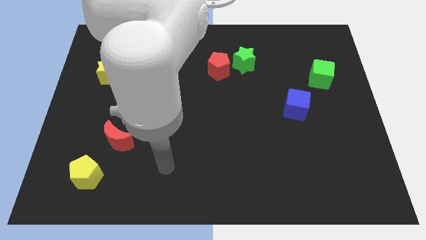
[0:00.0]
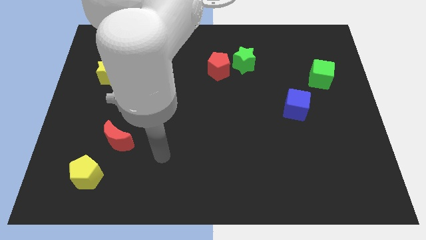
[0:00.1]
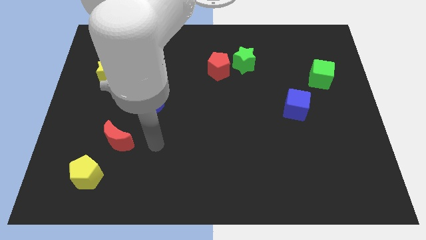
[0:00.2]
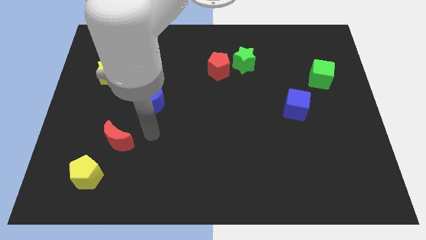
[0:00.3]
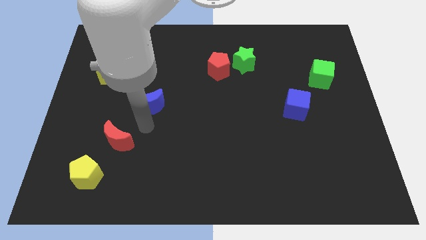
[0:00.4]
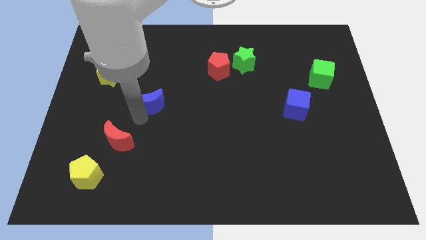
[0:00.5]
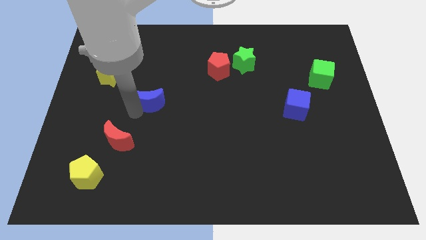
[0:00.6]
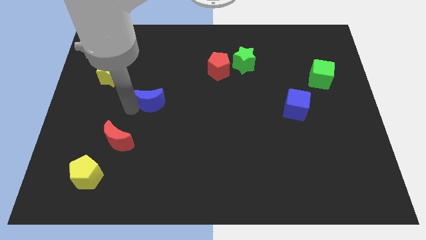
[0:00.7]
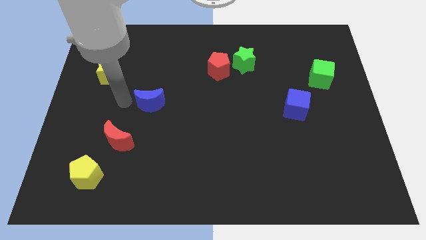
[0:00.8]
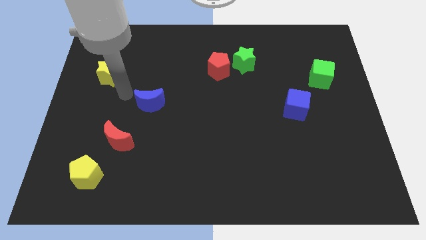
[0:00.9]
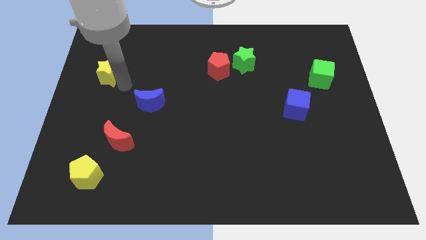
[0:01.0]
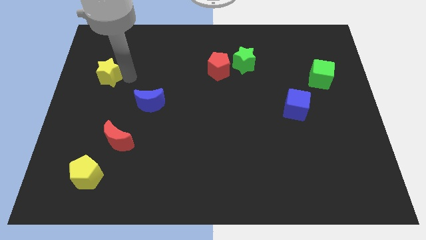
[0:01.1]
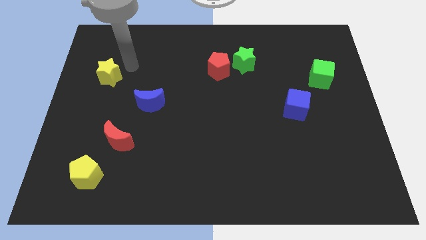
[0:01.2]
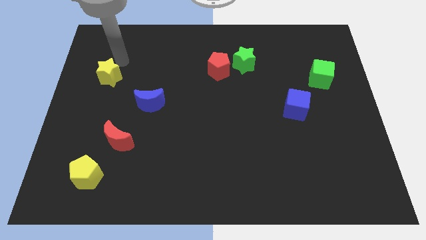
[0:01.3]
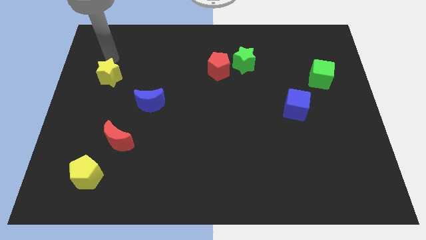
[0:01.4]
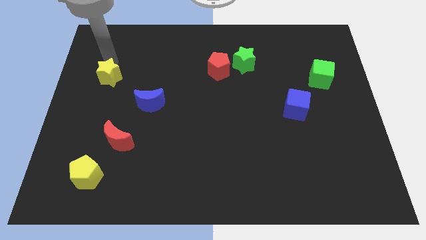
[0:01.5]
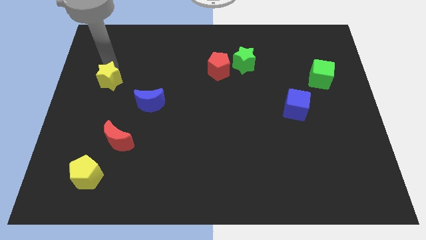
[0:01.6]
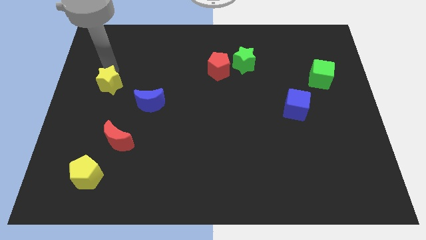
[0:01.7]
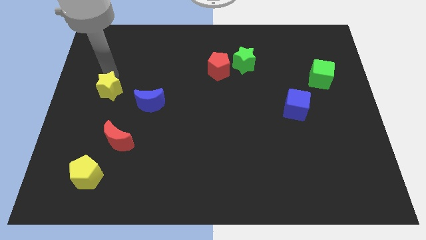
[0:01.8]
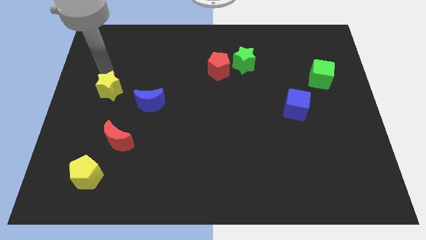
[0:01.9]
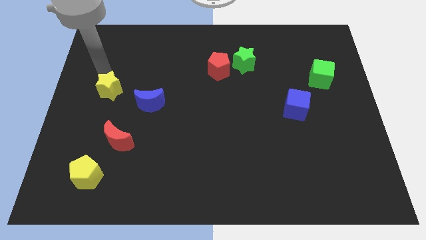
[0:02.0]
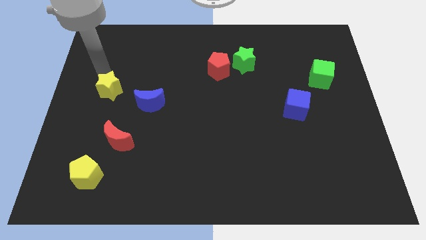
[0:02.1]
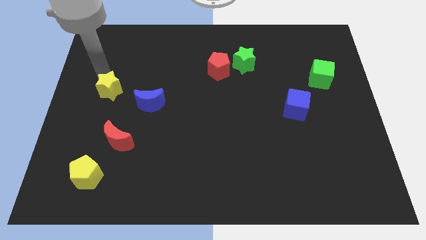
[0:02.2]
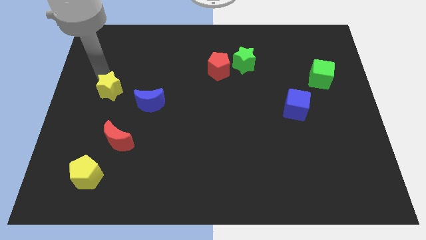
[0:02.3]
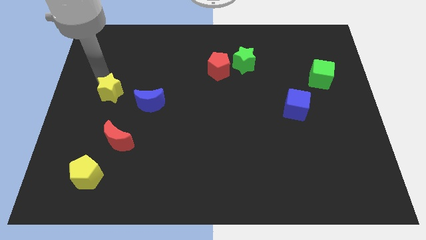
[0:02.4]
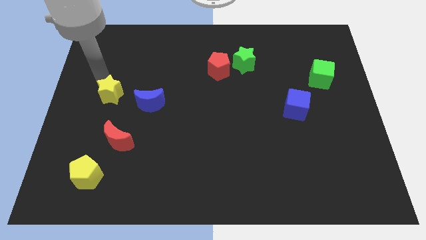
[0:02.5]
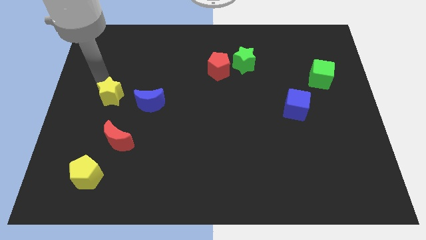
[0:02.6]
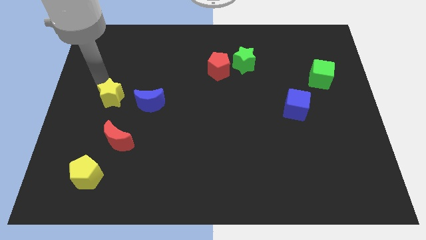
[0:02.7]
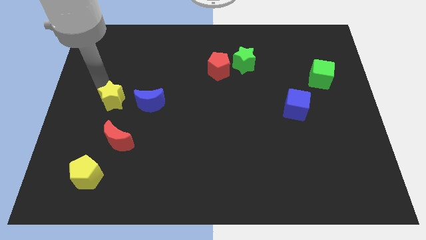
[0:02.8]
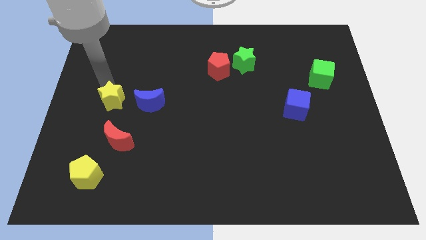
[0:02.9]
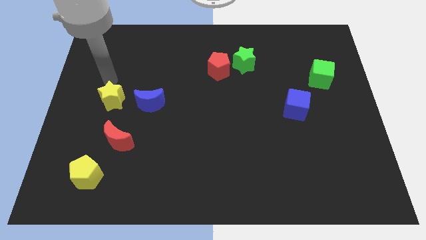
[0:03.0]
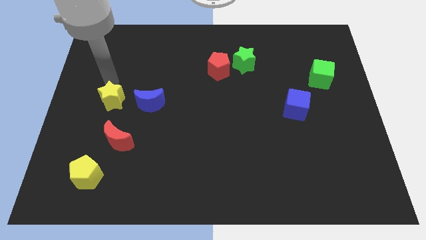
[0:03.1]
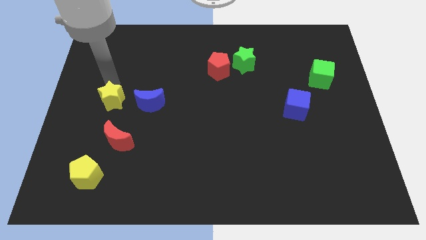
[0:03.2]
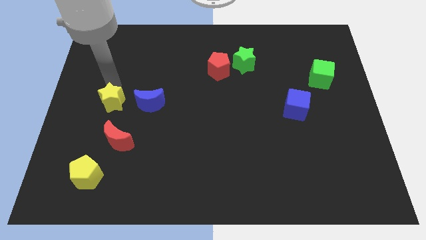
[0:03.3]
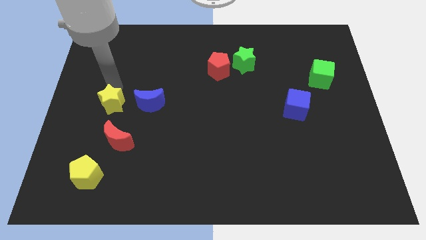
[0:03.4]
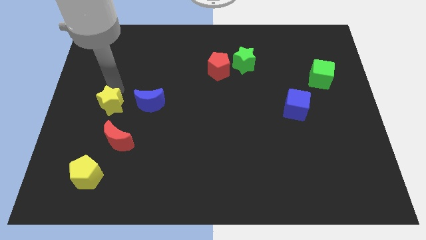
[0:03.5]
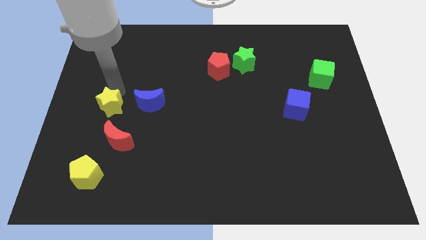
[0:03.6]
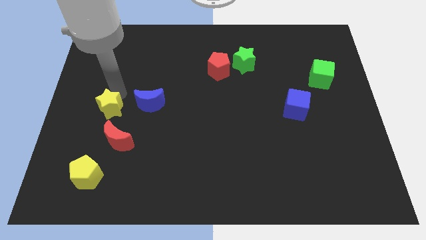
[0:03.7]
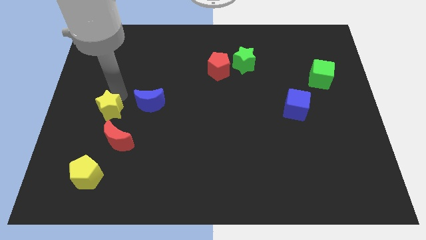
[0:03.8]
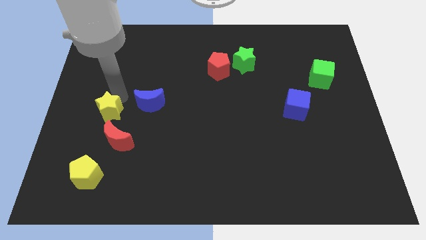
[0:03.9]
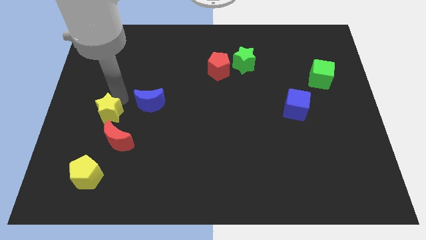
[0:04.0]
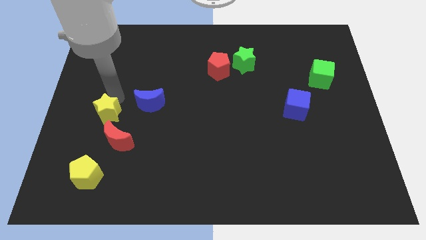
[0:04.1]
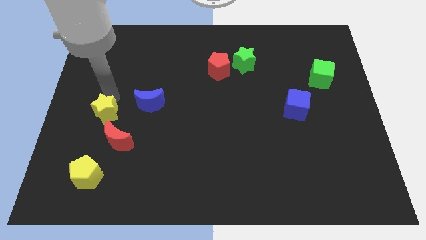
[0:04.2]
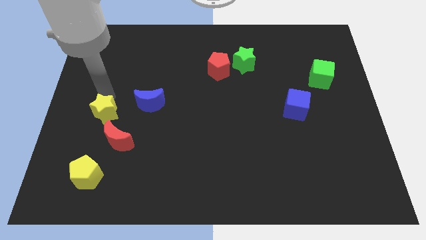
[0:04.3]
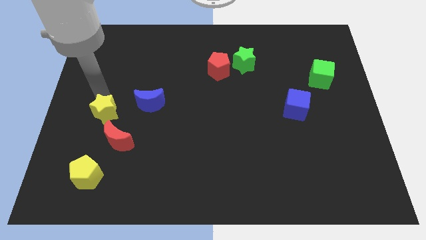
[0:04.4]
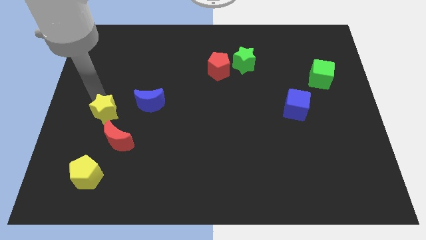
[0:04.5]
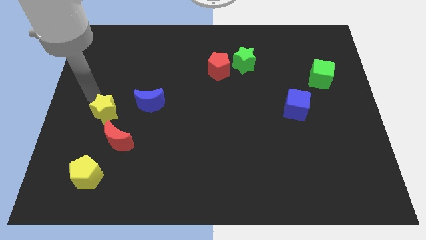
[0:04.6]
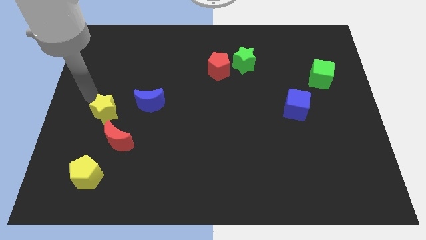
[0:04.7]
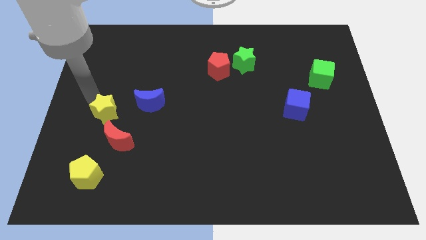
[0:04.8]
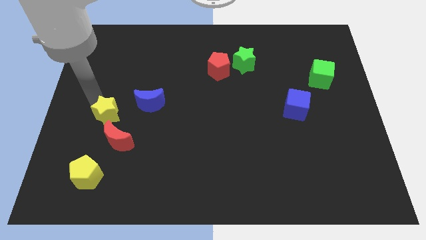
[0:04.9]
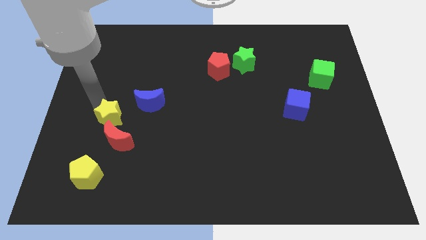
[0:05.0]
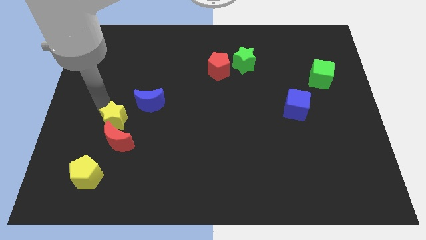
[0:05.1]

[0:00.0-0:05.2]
move the yellow star close to the red moon

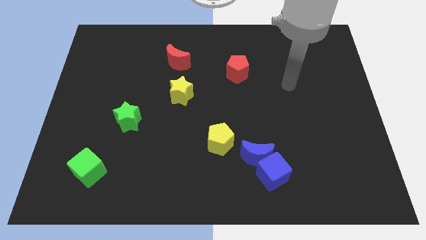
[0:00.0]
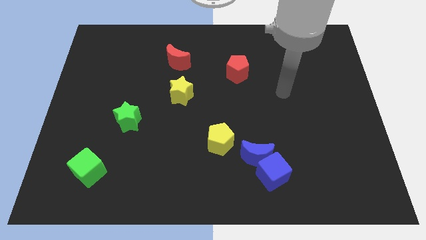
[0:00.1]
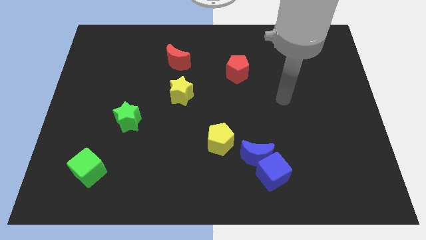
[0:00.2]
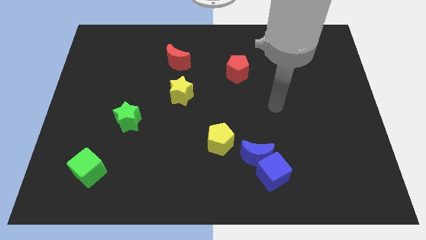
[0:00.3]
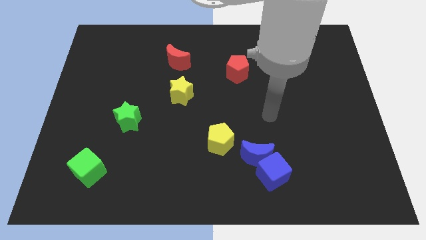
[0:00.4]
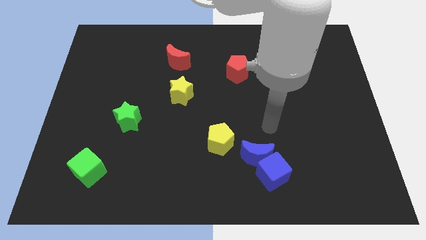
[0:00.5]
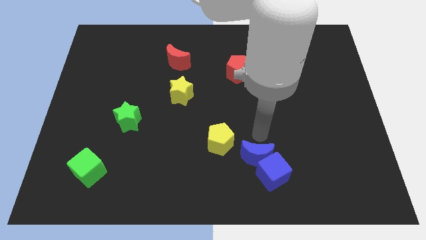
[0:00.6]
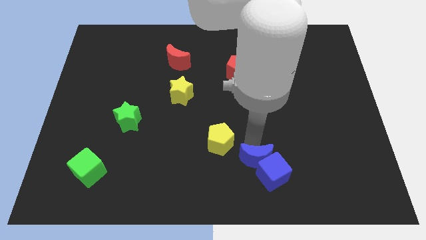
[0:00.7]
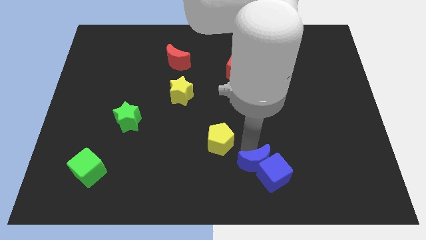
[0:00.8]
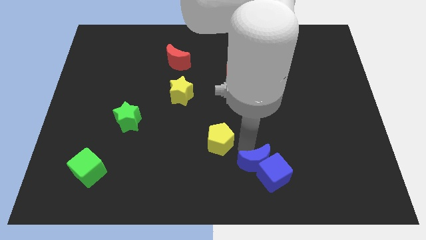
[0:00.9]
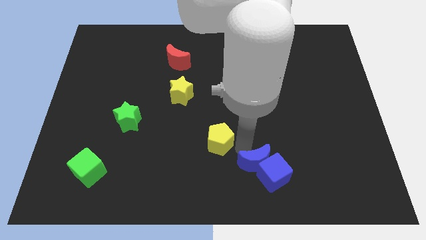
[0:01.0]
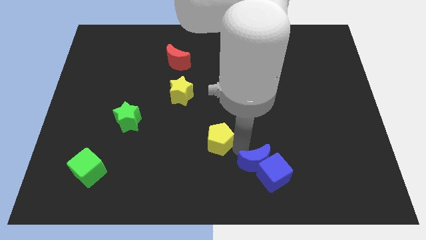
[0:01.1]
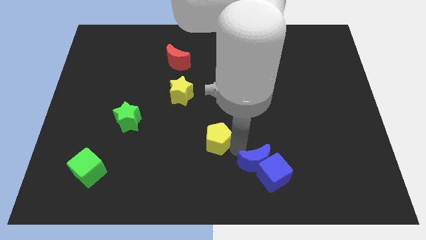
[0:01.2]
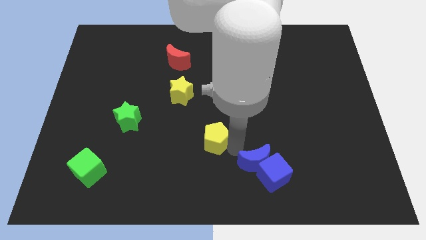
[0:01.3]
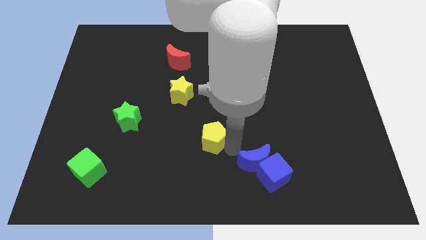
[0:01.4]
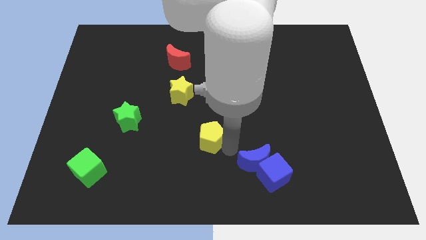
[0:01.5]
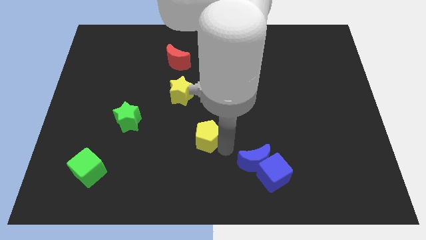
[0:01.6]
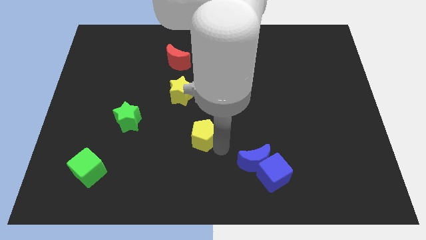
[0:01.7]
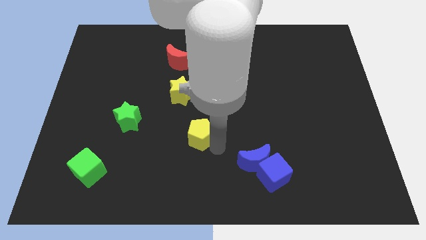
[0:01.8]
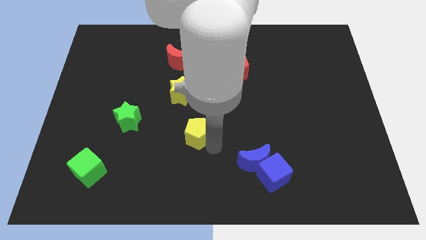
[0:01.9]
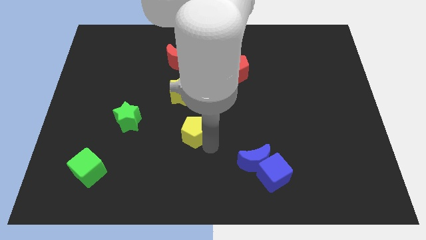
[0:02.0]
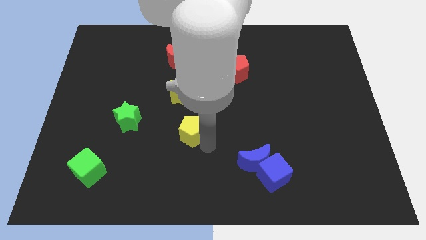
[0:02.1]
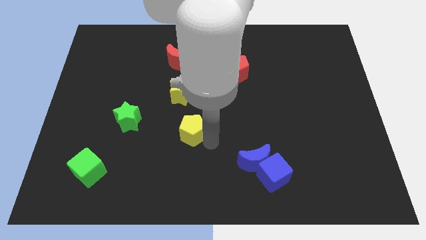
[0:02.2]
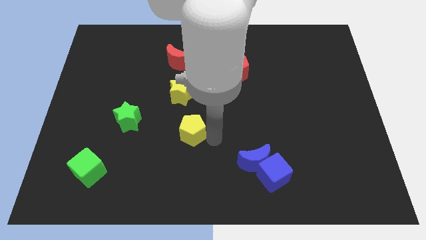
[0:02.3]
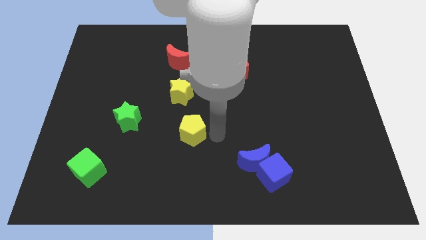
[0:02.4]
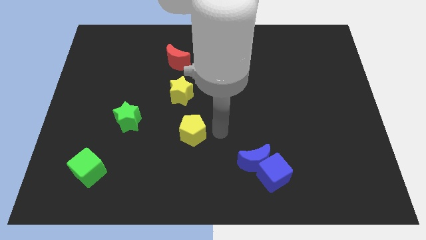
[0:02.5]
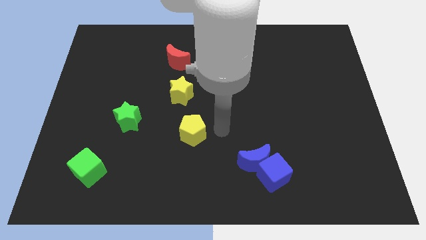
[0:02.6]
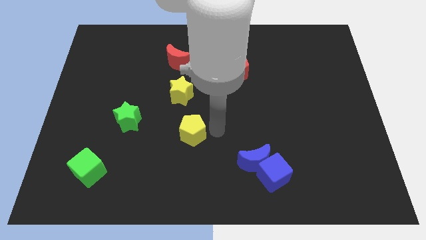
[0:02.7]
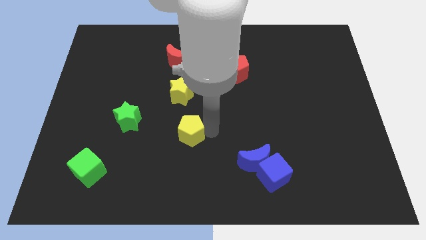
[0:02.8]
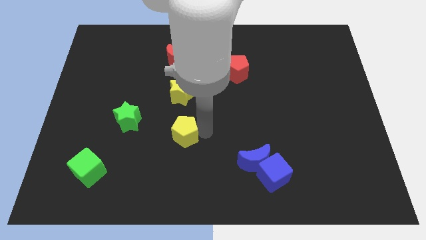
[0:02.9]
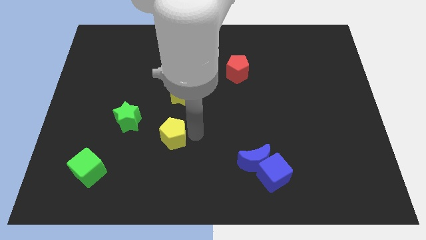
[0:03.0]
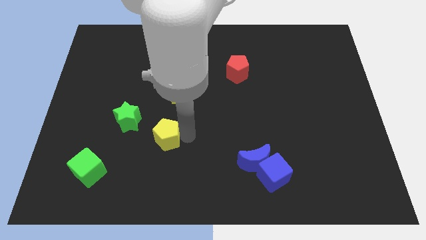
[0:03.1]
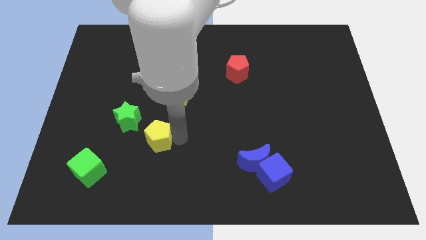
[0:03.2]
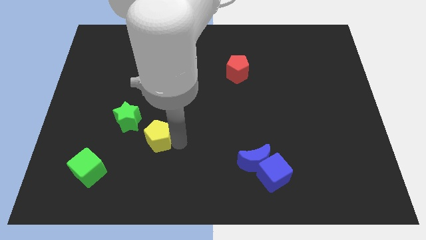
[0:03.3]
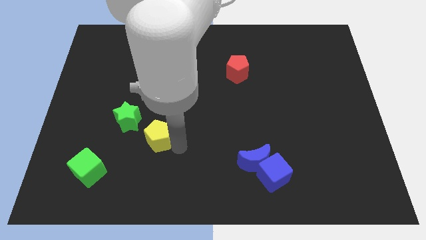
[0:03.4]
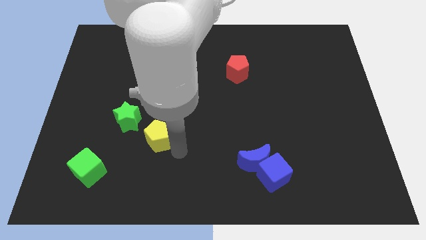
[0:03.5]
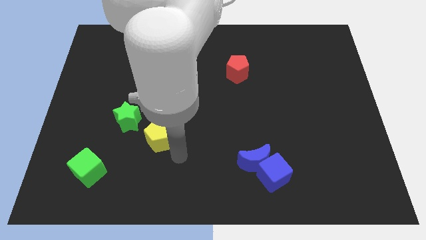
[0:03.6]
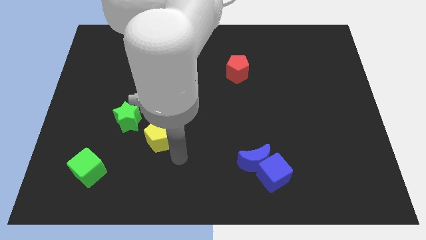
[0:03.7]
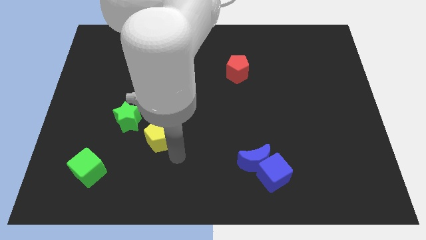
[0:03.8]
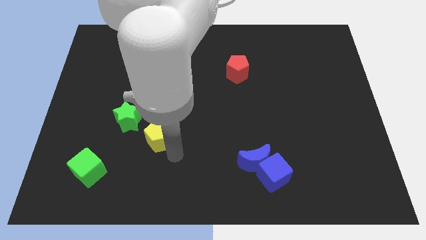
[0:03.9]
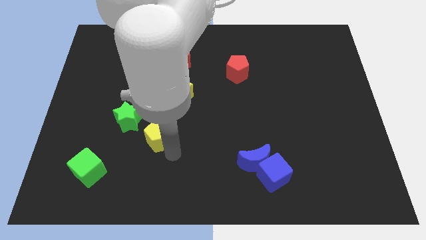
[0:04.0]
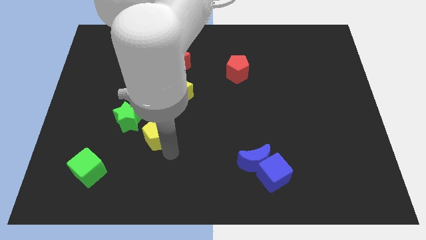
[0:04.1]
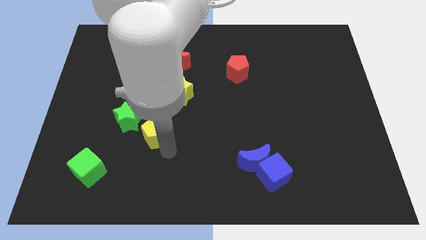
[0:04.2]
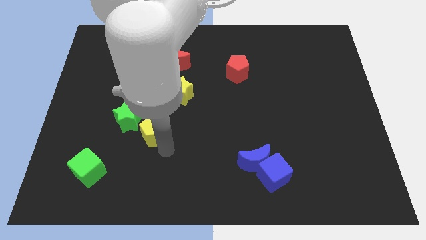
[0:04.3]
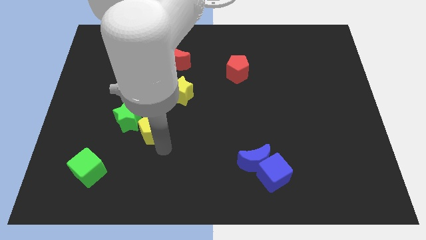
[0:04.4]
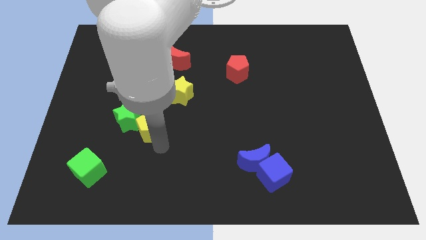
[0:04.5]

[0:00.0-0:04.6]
move the yellow pentagon to the green star
